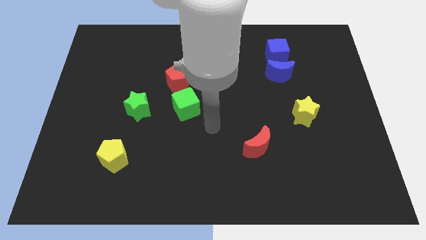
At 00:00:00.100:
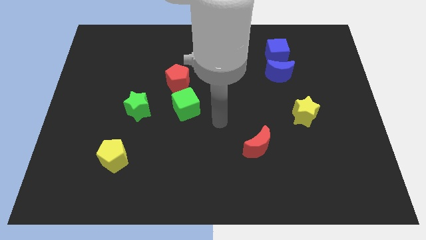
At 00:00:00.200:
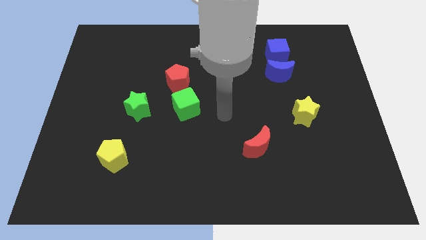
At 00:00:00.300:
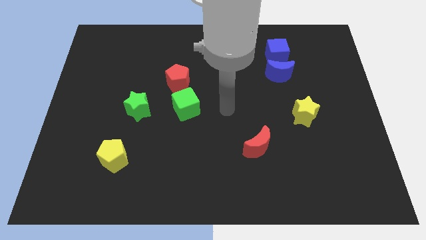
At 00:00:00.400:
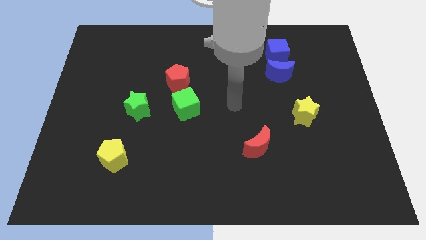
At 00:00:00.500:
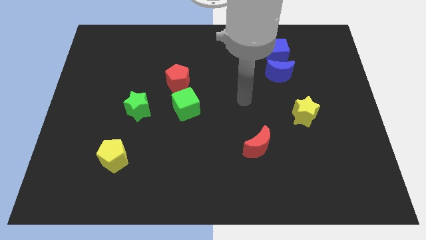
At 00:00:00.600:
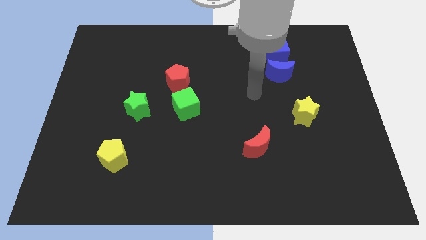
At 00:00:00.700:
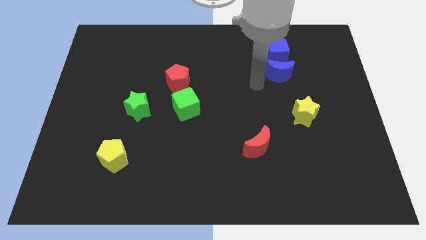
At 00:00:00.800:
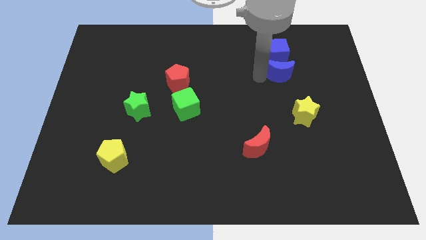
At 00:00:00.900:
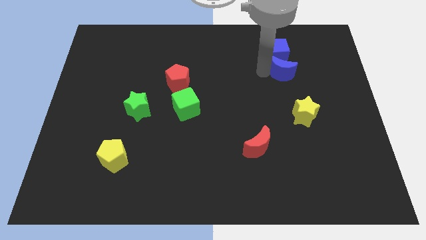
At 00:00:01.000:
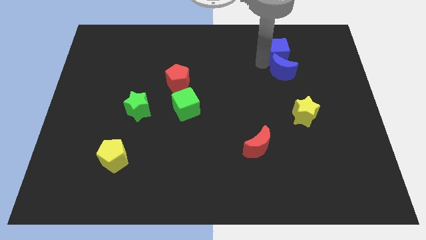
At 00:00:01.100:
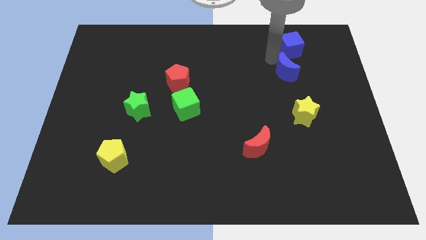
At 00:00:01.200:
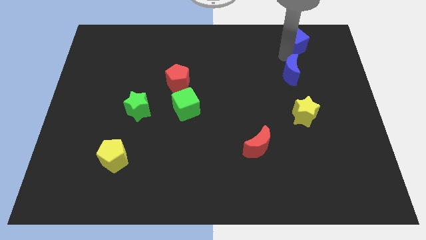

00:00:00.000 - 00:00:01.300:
move the blue moon away from the blue cube

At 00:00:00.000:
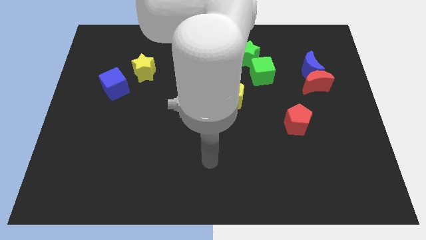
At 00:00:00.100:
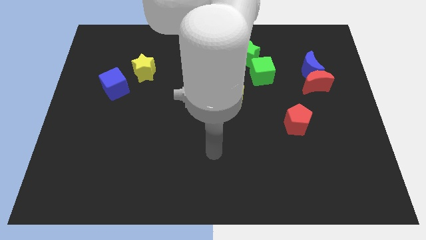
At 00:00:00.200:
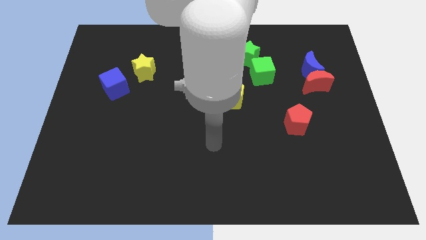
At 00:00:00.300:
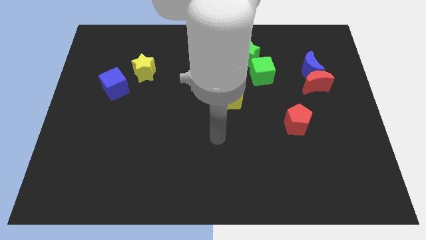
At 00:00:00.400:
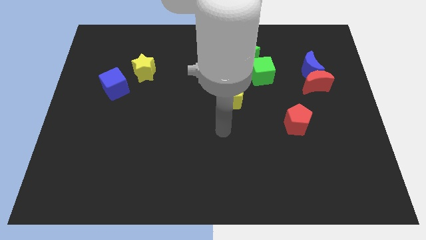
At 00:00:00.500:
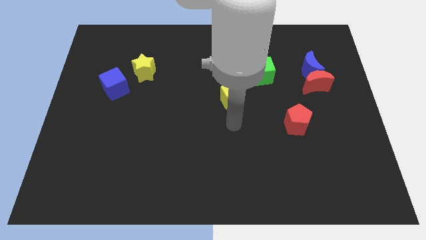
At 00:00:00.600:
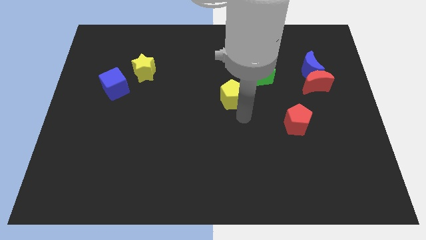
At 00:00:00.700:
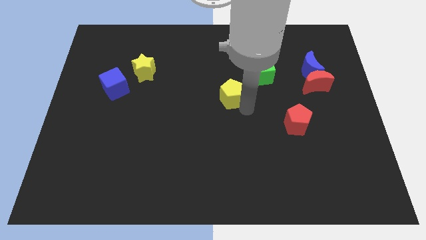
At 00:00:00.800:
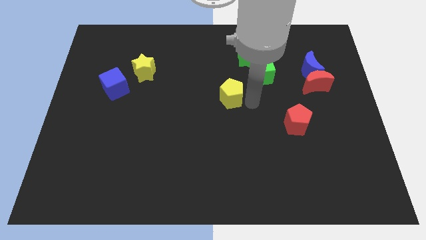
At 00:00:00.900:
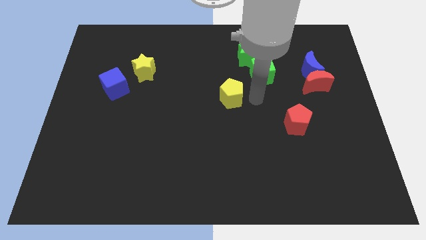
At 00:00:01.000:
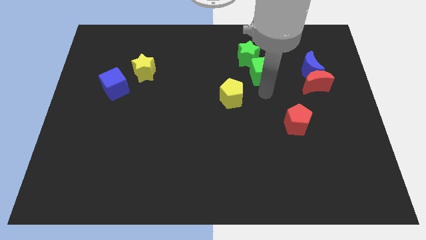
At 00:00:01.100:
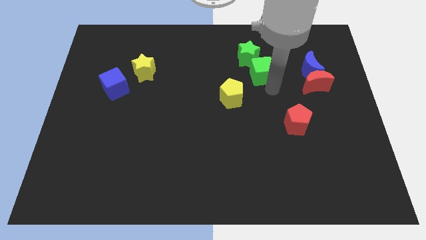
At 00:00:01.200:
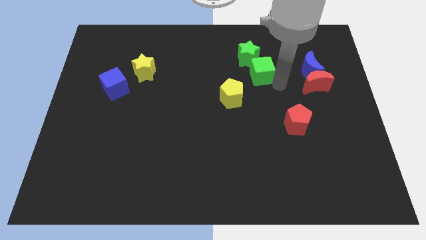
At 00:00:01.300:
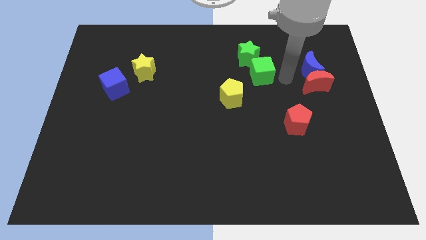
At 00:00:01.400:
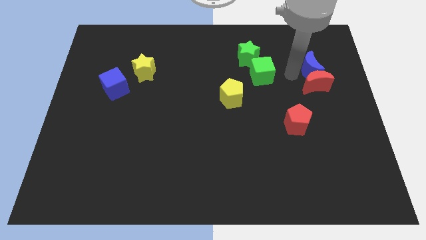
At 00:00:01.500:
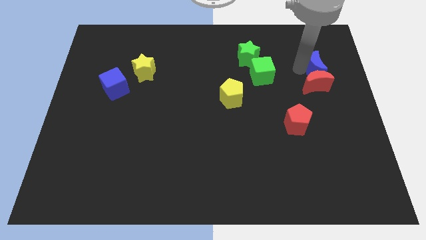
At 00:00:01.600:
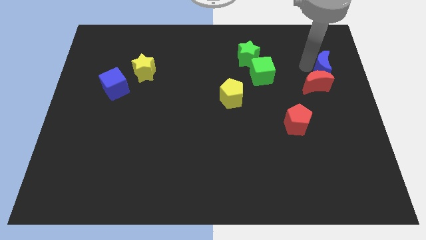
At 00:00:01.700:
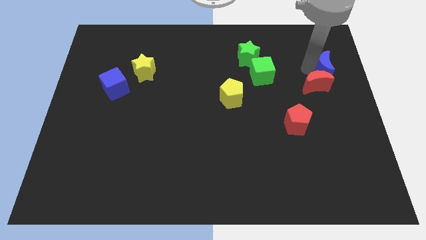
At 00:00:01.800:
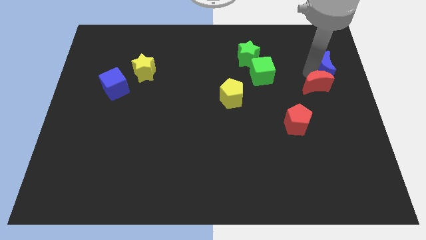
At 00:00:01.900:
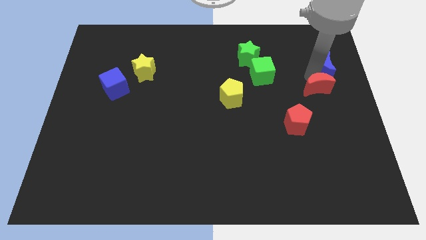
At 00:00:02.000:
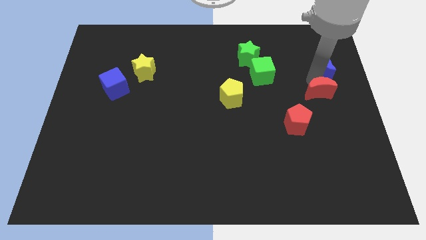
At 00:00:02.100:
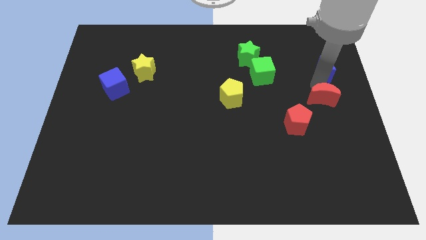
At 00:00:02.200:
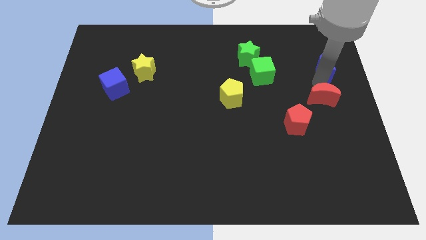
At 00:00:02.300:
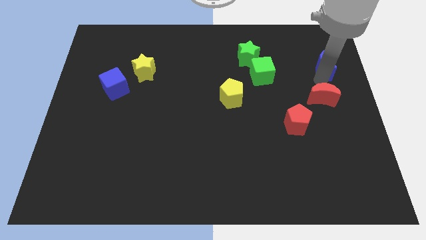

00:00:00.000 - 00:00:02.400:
move the red moon away from the blue moon

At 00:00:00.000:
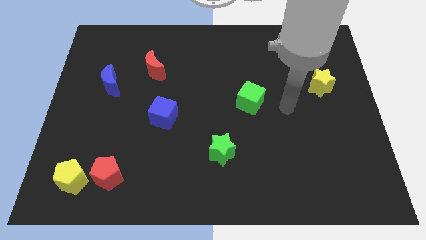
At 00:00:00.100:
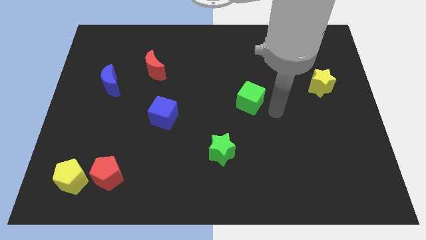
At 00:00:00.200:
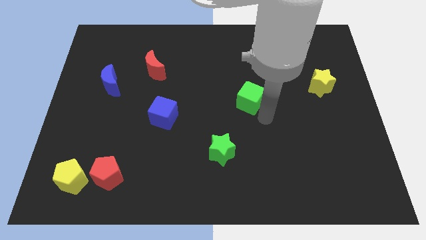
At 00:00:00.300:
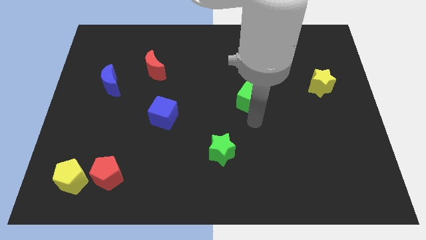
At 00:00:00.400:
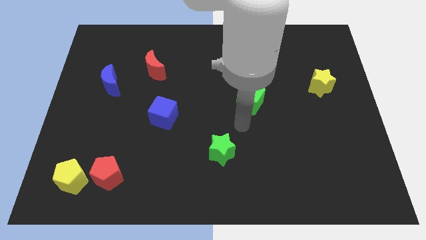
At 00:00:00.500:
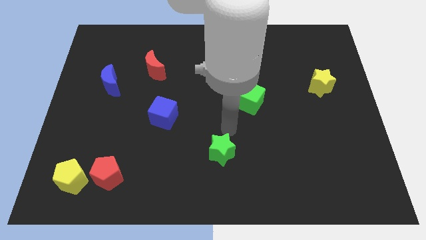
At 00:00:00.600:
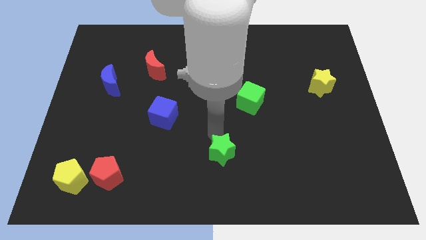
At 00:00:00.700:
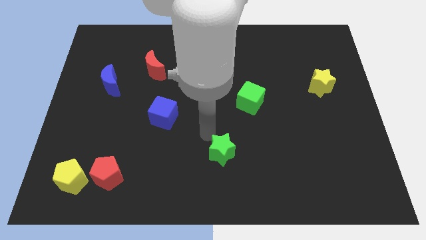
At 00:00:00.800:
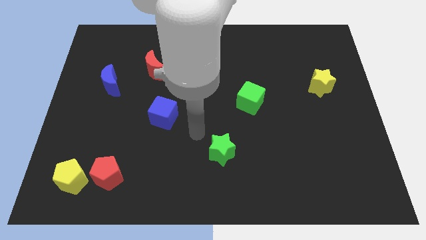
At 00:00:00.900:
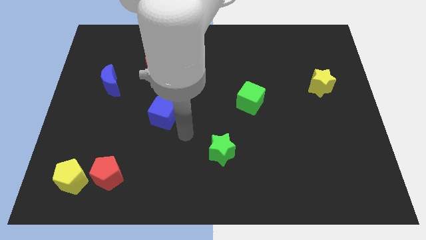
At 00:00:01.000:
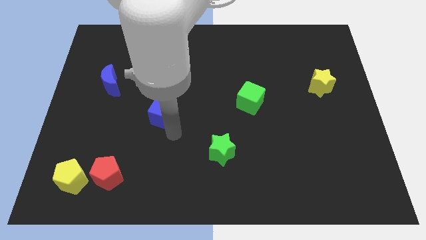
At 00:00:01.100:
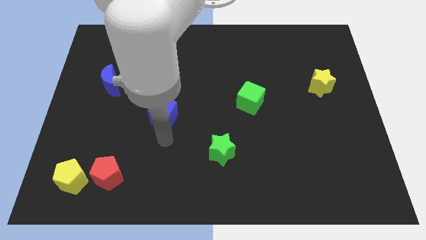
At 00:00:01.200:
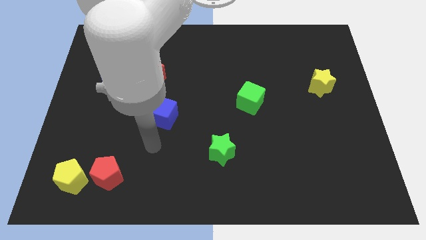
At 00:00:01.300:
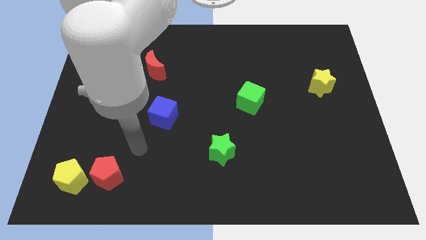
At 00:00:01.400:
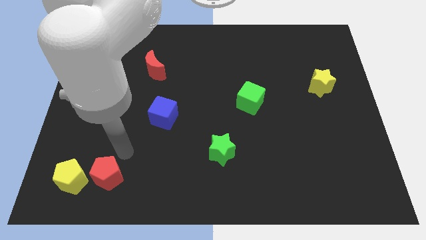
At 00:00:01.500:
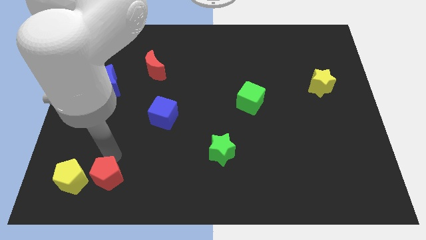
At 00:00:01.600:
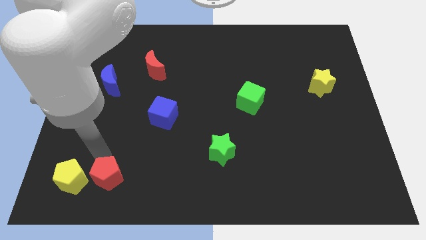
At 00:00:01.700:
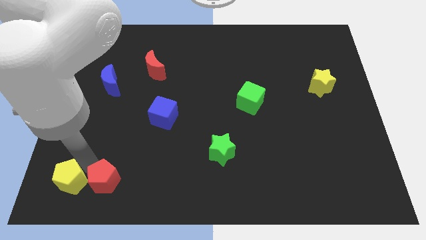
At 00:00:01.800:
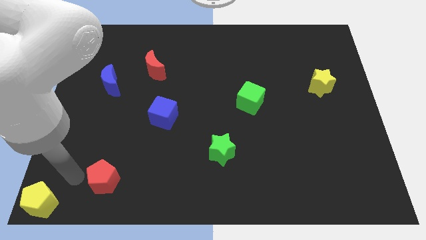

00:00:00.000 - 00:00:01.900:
separate the red pentagon from the yellow pentagon

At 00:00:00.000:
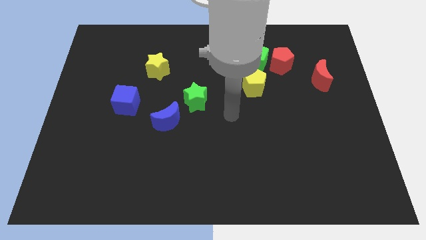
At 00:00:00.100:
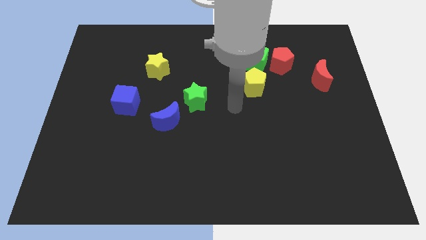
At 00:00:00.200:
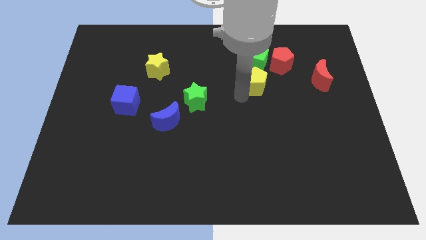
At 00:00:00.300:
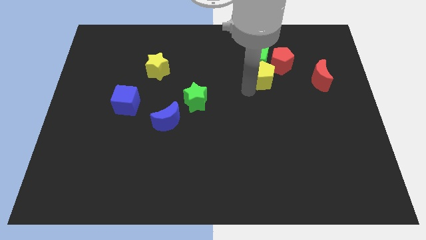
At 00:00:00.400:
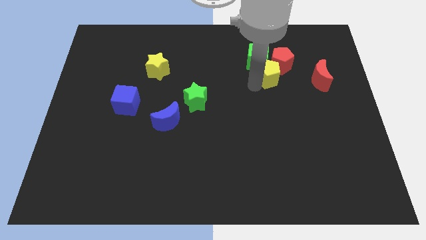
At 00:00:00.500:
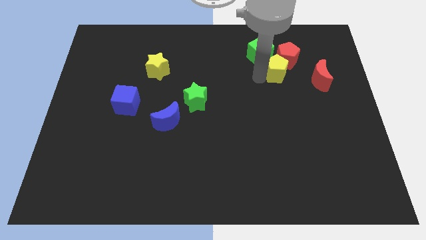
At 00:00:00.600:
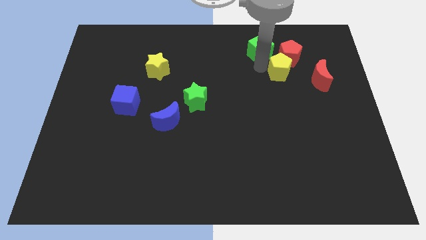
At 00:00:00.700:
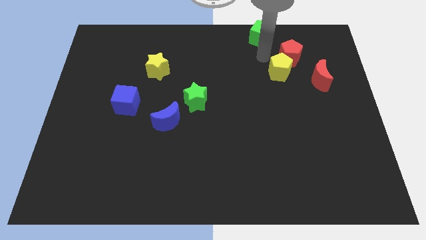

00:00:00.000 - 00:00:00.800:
separate the red pentagon from the green cube

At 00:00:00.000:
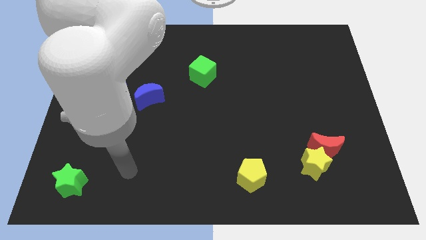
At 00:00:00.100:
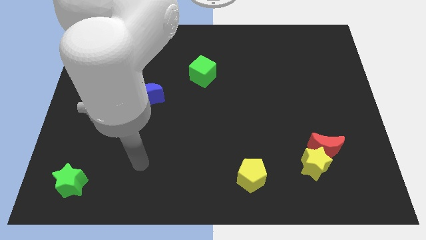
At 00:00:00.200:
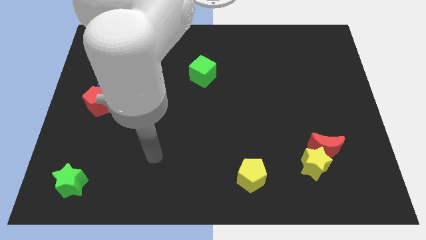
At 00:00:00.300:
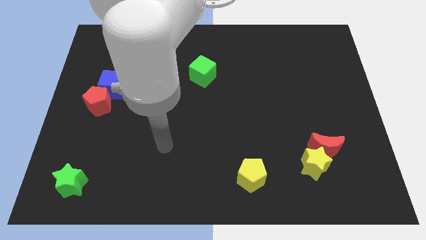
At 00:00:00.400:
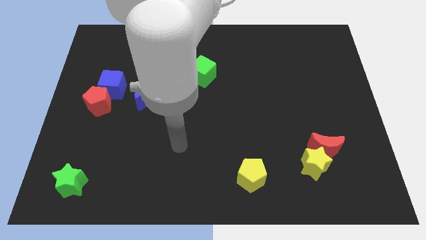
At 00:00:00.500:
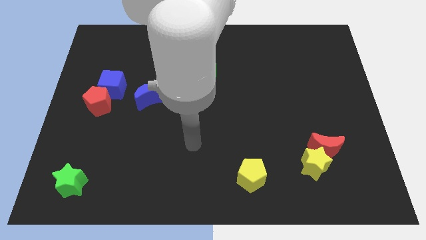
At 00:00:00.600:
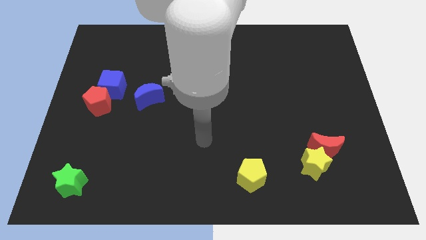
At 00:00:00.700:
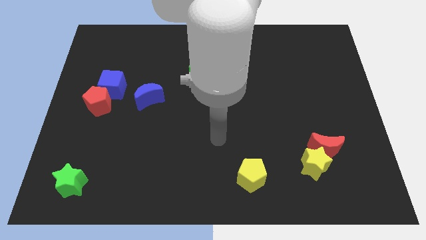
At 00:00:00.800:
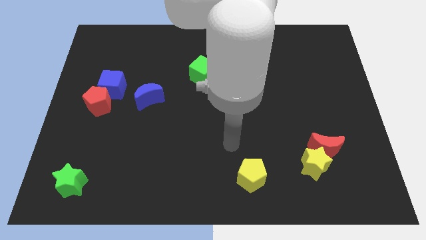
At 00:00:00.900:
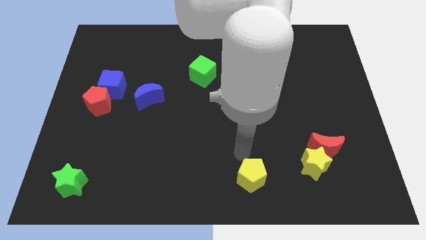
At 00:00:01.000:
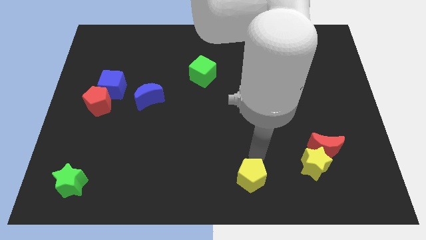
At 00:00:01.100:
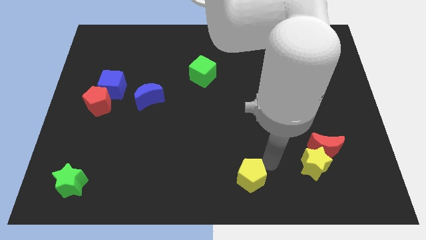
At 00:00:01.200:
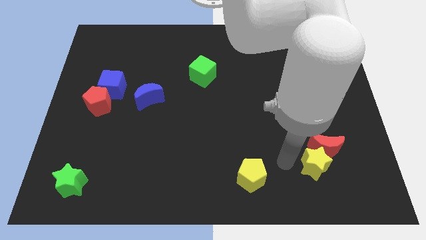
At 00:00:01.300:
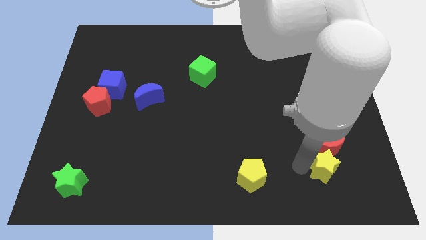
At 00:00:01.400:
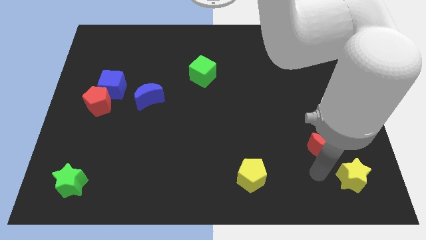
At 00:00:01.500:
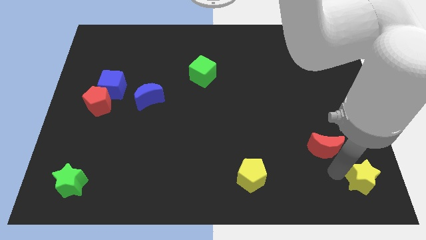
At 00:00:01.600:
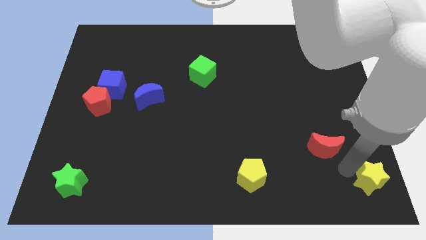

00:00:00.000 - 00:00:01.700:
separate the red moon from the yellow star

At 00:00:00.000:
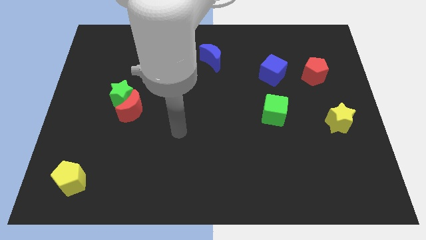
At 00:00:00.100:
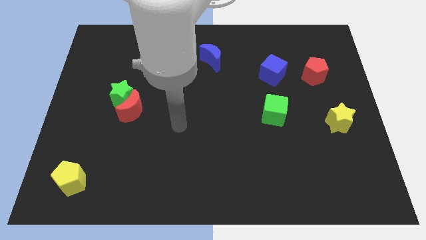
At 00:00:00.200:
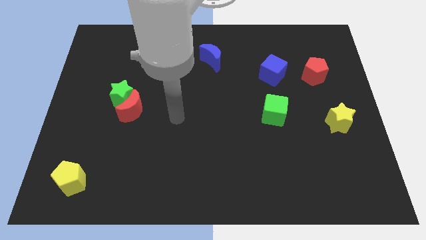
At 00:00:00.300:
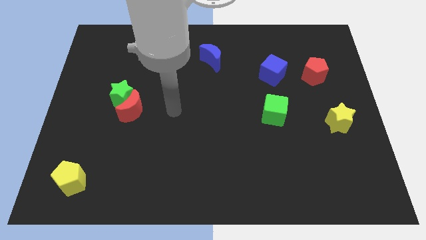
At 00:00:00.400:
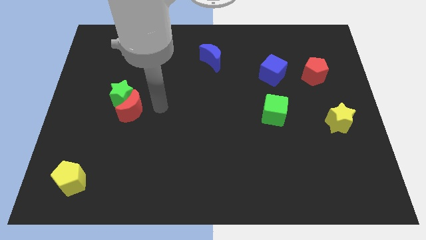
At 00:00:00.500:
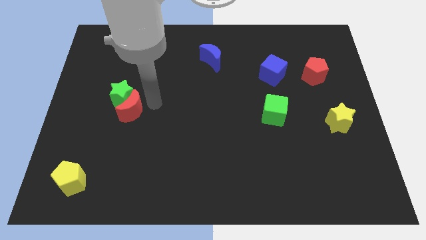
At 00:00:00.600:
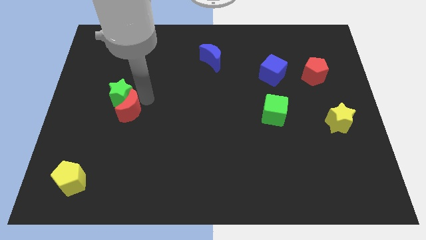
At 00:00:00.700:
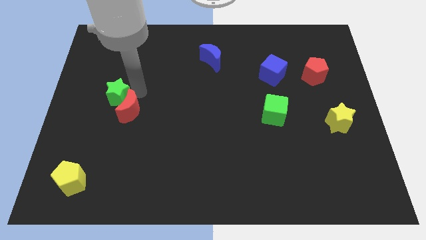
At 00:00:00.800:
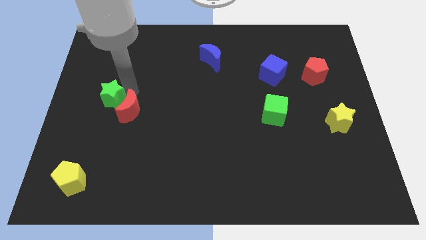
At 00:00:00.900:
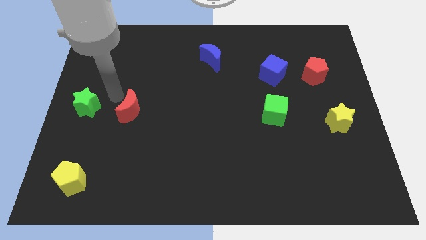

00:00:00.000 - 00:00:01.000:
move the red moon away from the green star
